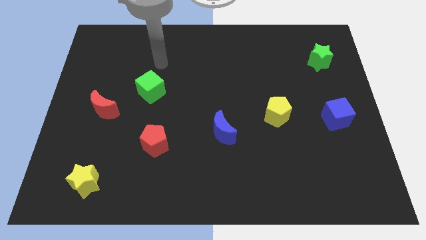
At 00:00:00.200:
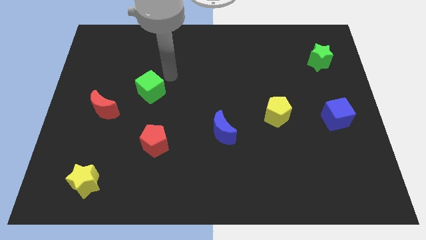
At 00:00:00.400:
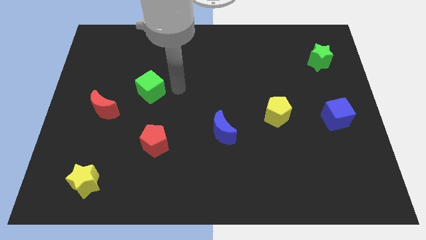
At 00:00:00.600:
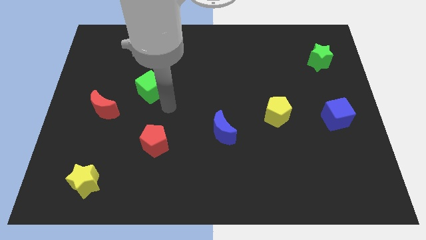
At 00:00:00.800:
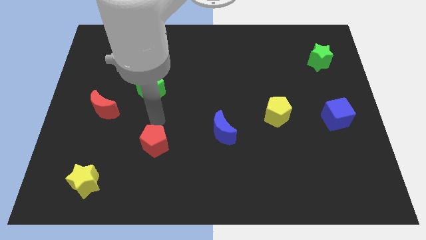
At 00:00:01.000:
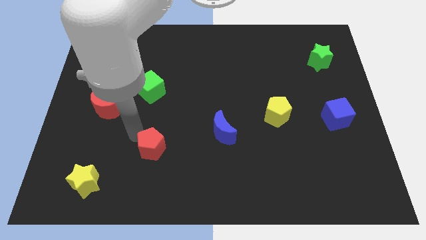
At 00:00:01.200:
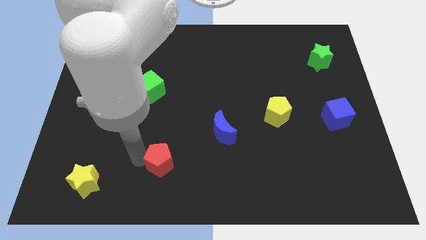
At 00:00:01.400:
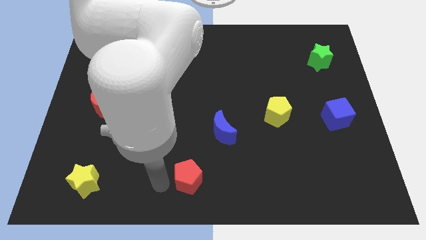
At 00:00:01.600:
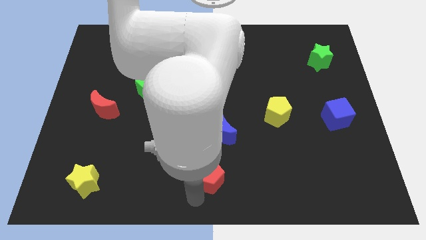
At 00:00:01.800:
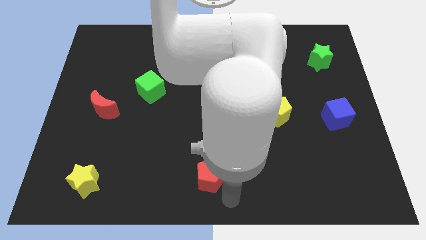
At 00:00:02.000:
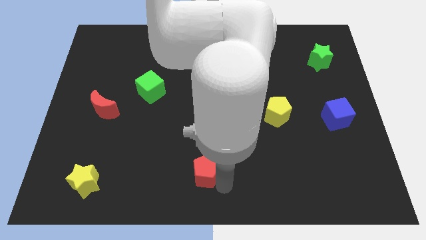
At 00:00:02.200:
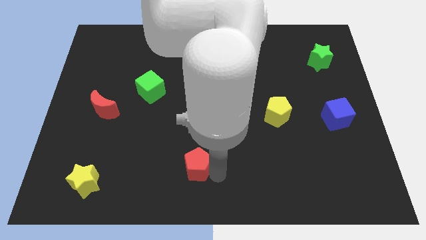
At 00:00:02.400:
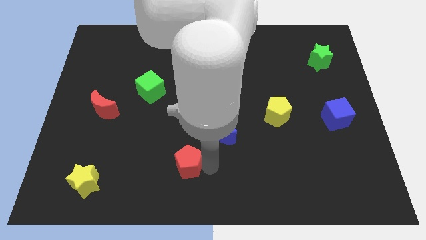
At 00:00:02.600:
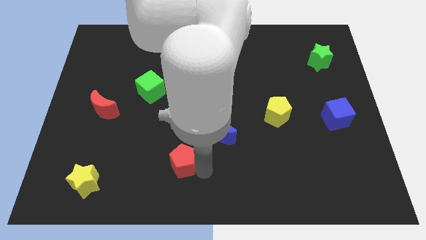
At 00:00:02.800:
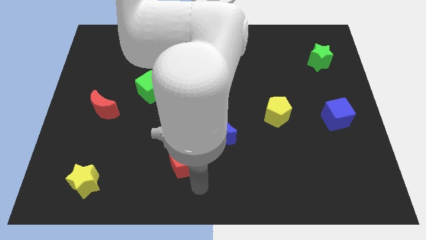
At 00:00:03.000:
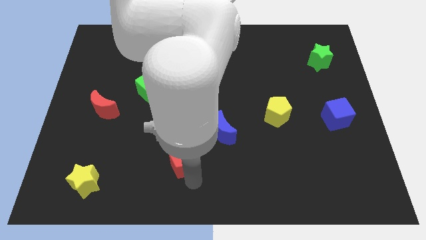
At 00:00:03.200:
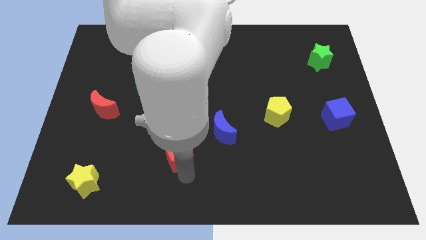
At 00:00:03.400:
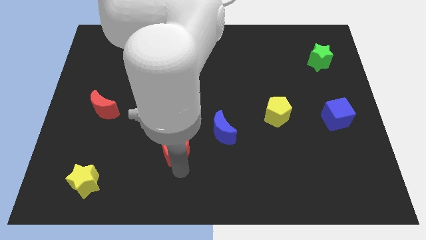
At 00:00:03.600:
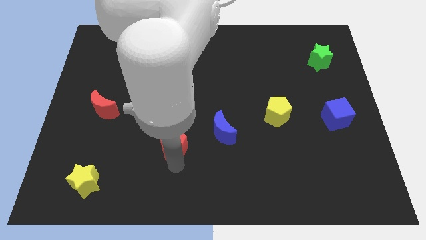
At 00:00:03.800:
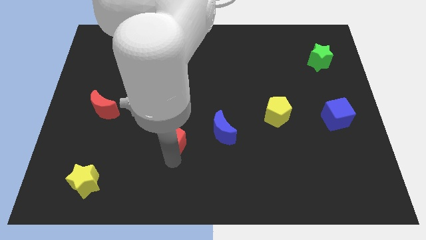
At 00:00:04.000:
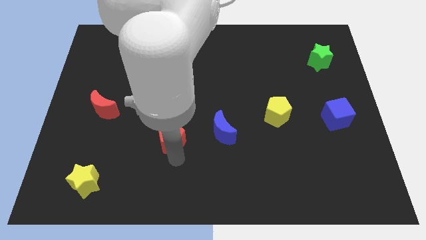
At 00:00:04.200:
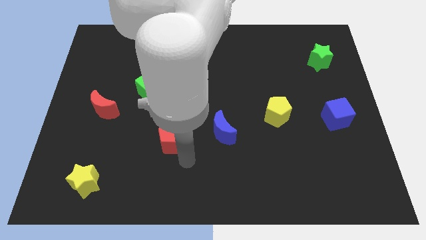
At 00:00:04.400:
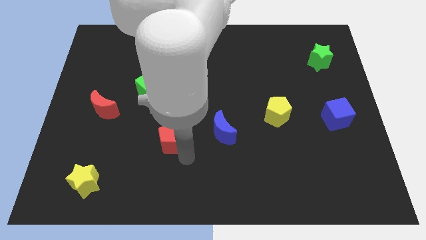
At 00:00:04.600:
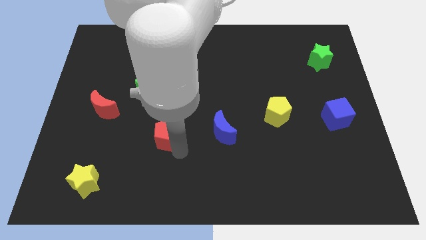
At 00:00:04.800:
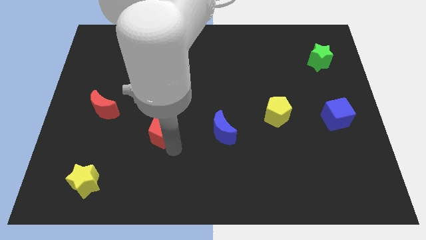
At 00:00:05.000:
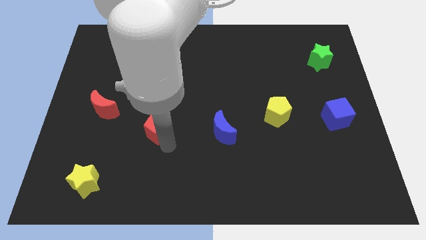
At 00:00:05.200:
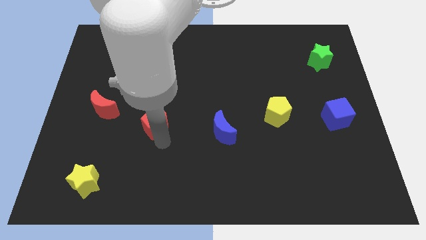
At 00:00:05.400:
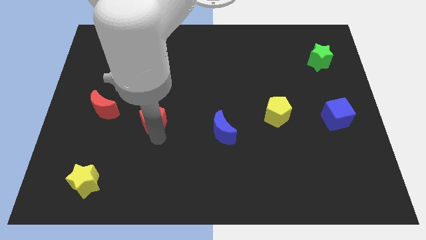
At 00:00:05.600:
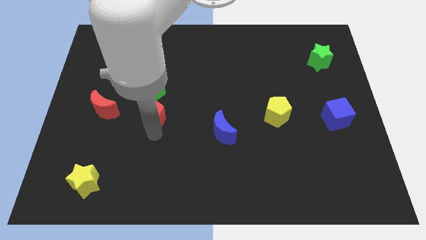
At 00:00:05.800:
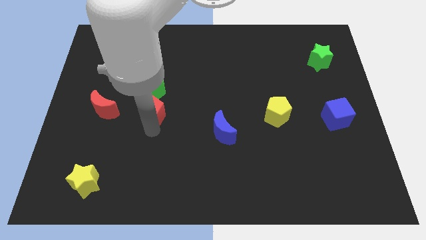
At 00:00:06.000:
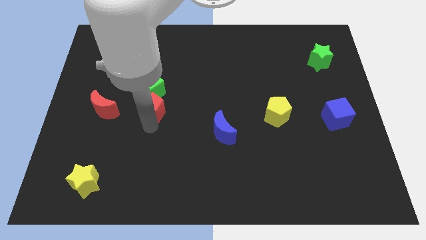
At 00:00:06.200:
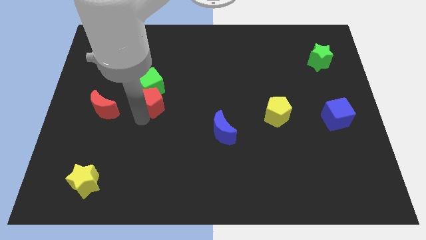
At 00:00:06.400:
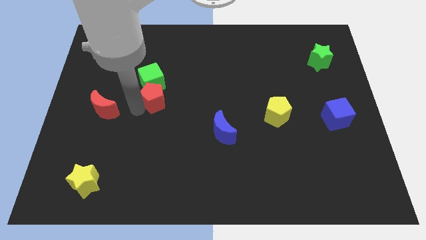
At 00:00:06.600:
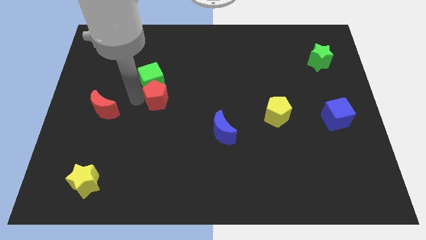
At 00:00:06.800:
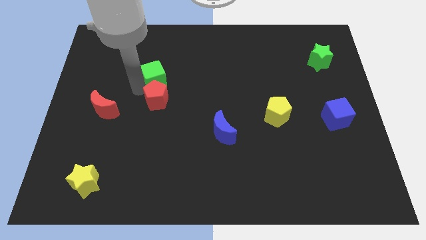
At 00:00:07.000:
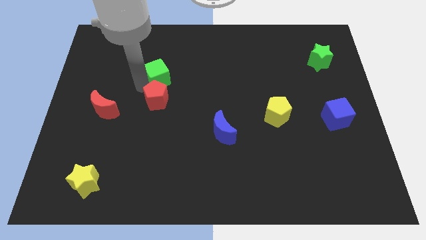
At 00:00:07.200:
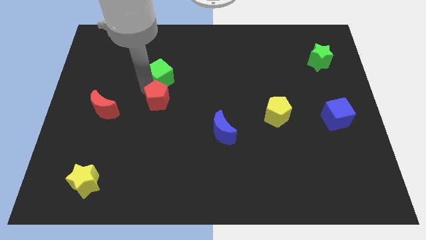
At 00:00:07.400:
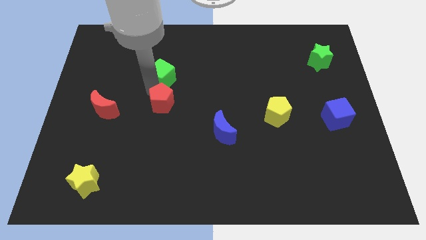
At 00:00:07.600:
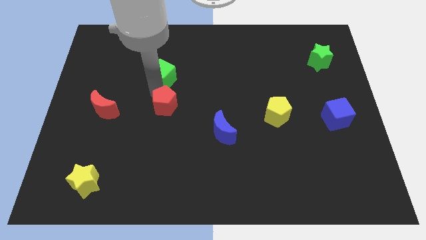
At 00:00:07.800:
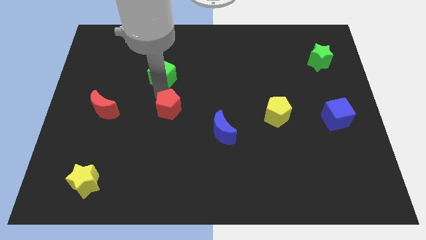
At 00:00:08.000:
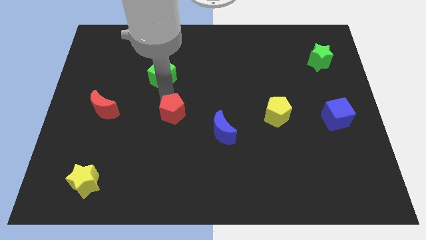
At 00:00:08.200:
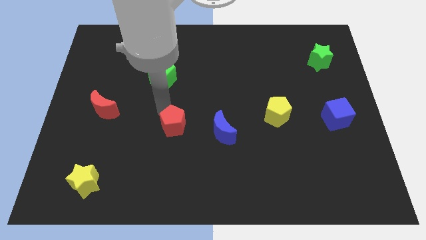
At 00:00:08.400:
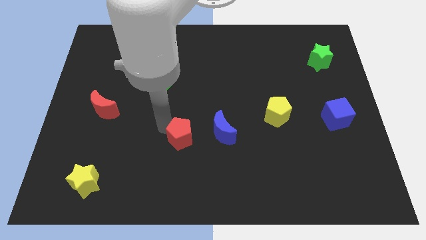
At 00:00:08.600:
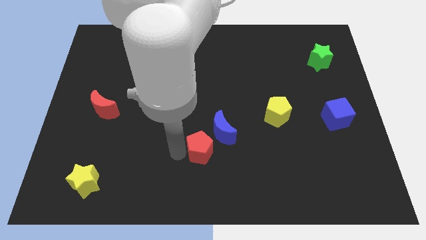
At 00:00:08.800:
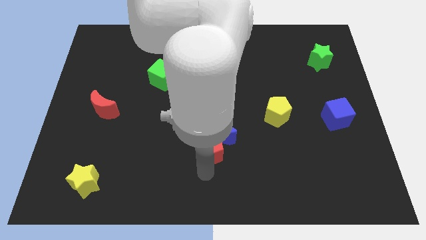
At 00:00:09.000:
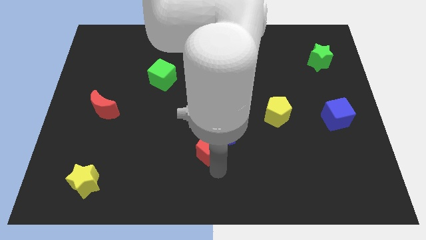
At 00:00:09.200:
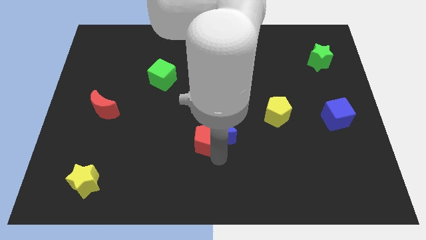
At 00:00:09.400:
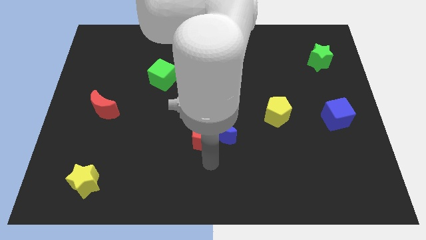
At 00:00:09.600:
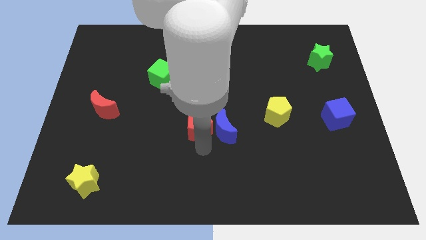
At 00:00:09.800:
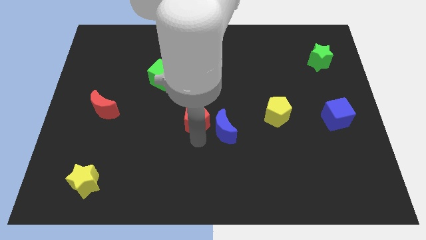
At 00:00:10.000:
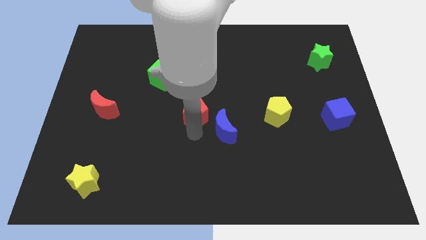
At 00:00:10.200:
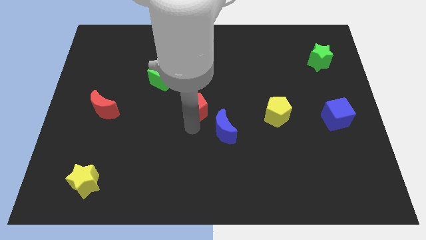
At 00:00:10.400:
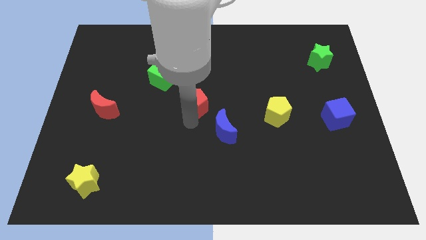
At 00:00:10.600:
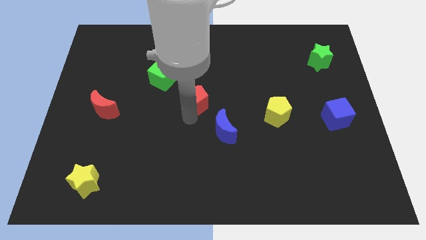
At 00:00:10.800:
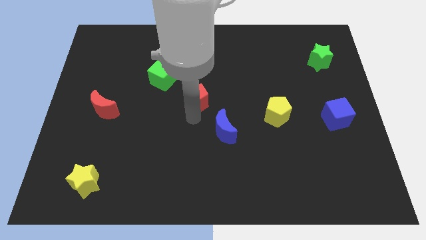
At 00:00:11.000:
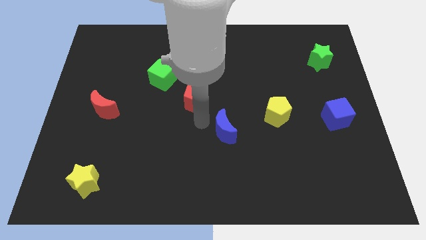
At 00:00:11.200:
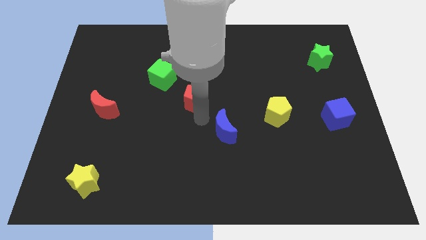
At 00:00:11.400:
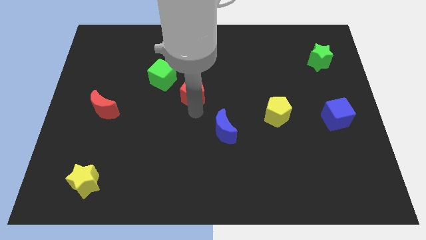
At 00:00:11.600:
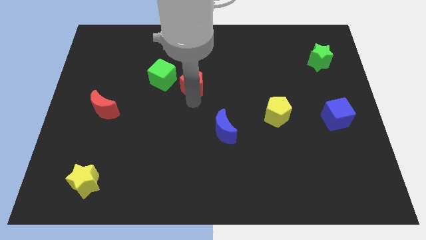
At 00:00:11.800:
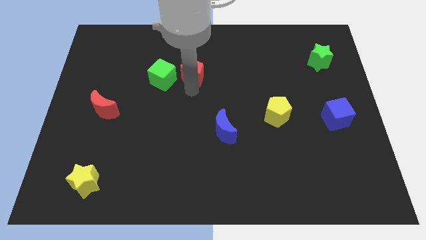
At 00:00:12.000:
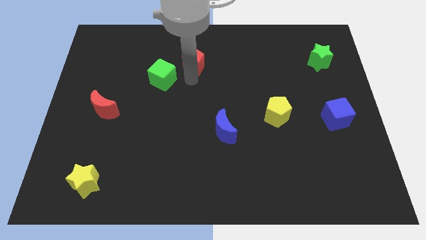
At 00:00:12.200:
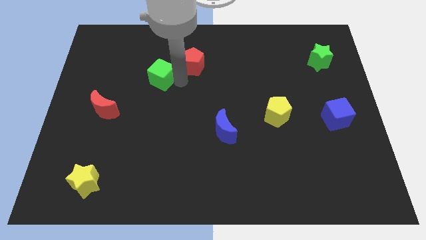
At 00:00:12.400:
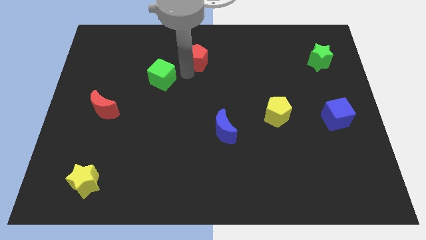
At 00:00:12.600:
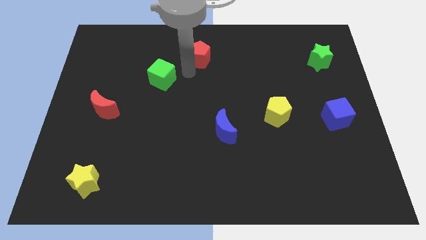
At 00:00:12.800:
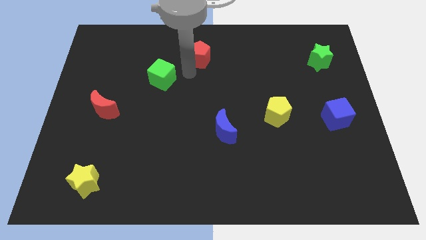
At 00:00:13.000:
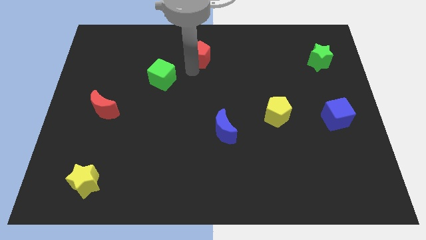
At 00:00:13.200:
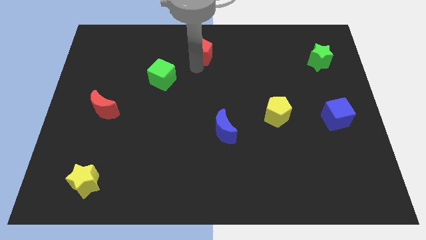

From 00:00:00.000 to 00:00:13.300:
slide the red pentagon to the top side
